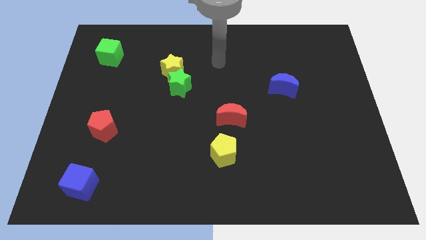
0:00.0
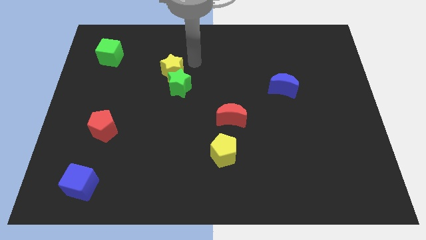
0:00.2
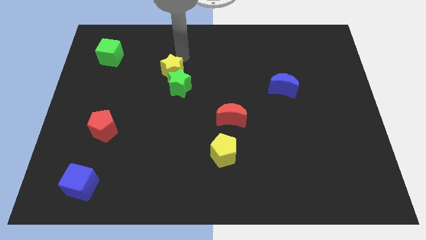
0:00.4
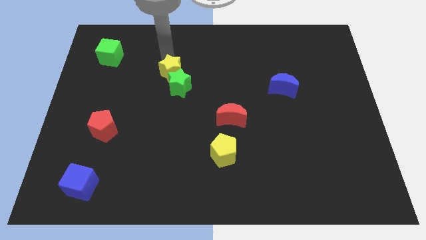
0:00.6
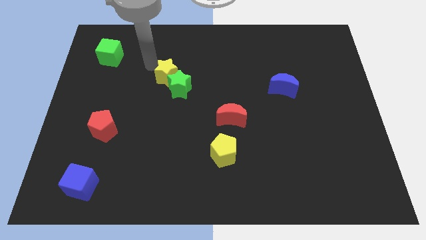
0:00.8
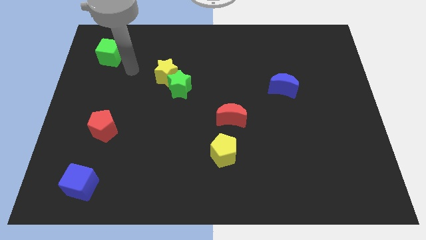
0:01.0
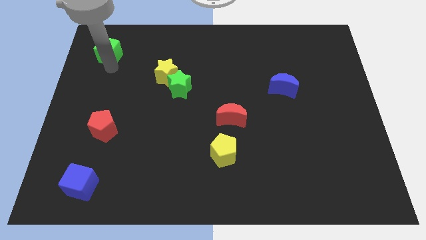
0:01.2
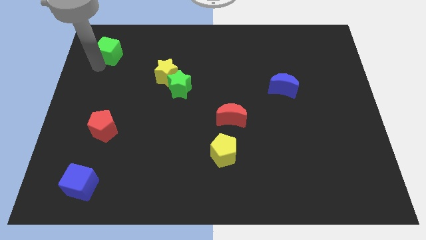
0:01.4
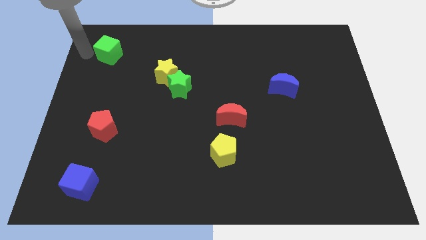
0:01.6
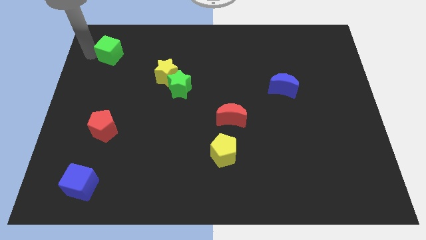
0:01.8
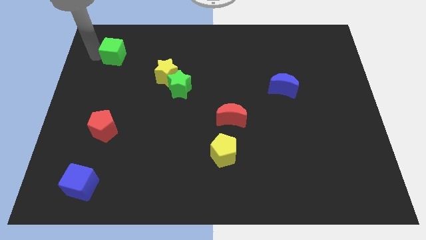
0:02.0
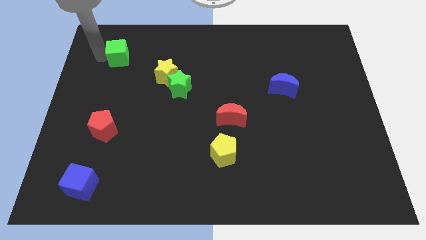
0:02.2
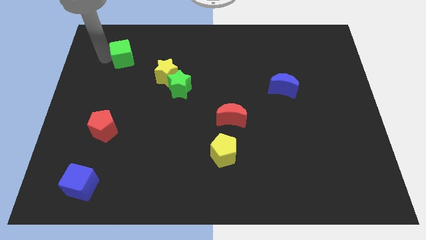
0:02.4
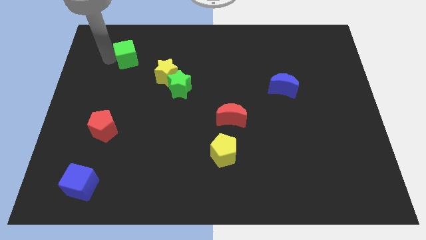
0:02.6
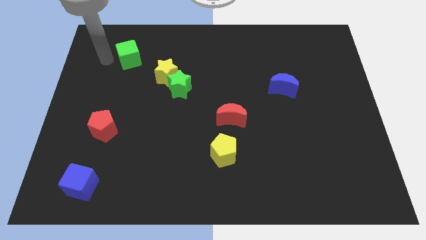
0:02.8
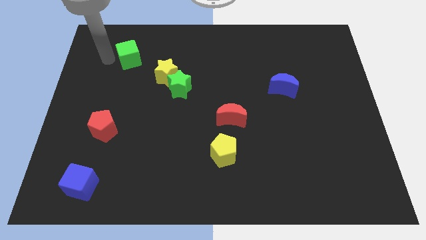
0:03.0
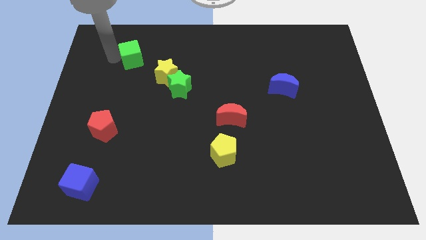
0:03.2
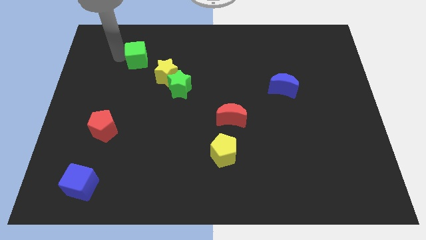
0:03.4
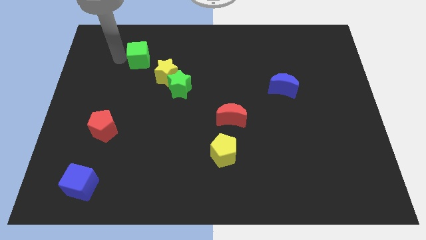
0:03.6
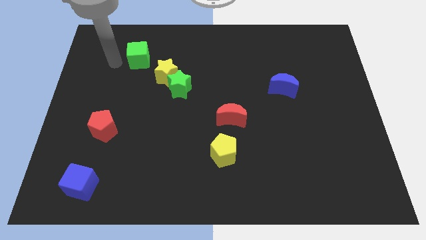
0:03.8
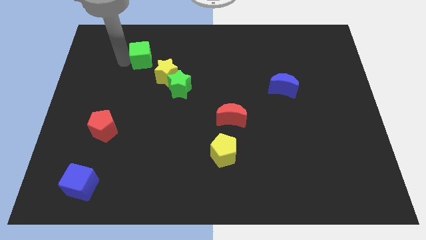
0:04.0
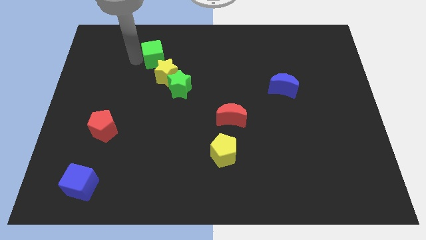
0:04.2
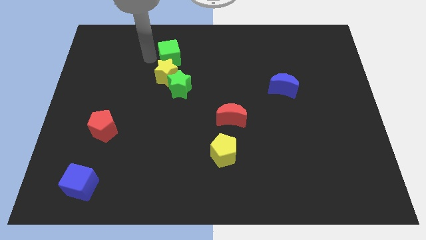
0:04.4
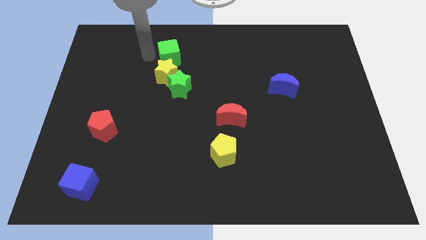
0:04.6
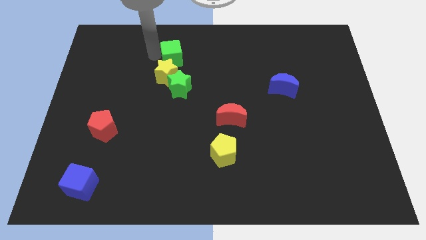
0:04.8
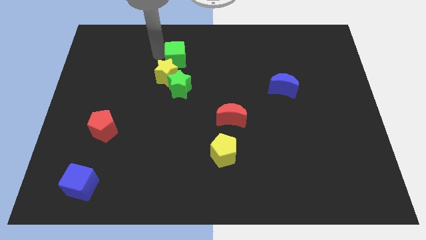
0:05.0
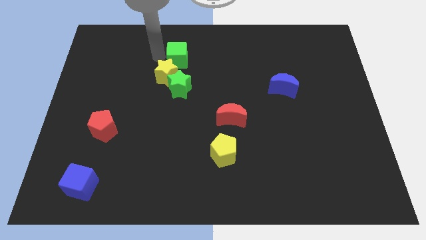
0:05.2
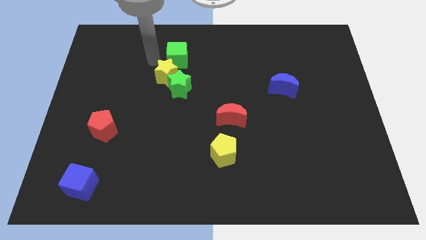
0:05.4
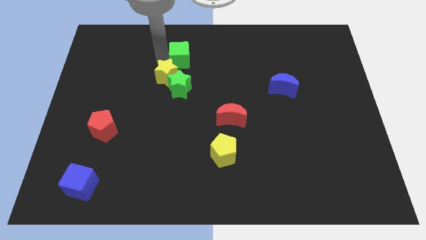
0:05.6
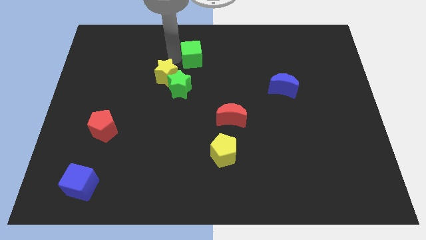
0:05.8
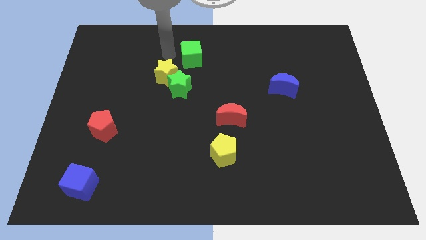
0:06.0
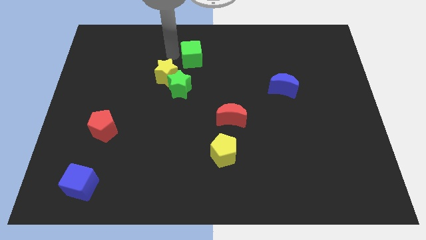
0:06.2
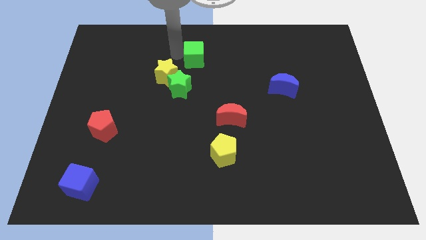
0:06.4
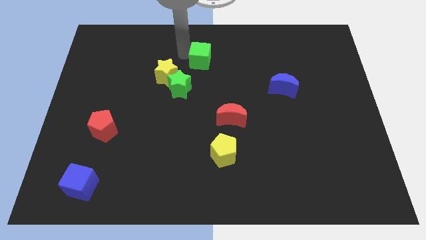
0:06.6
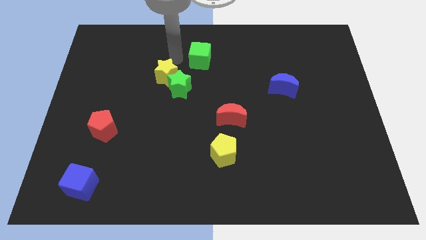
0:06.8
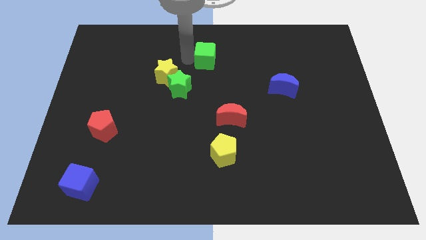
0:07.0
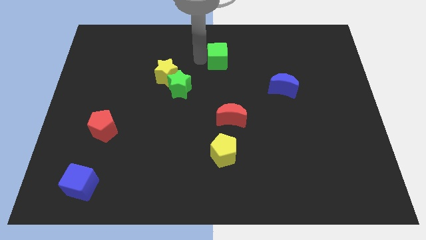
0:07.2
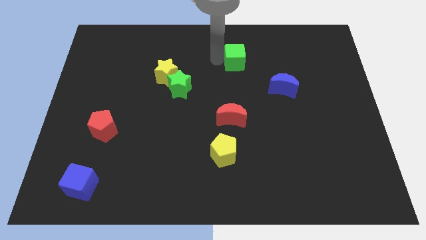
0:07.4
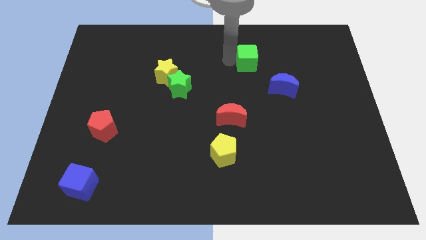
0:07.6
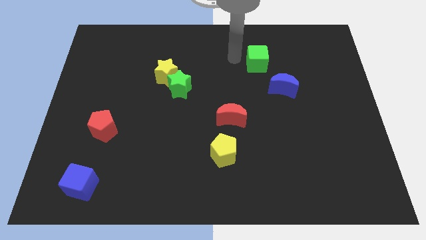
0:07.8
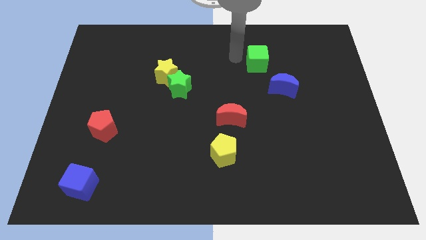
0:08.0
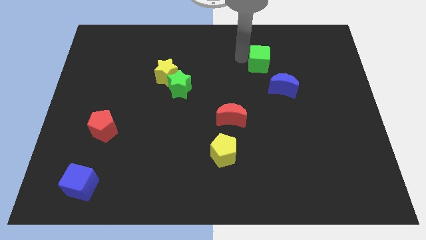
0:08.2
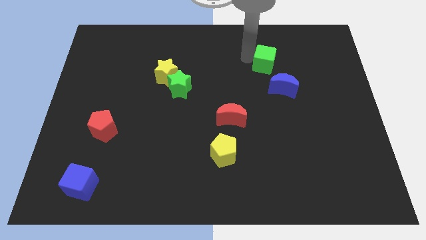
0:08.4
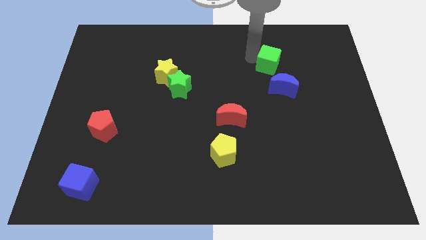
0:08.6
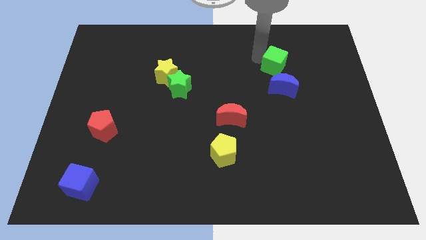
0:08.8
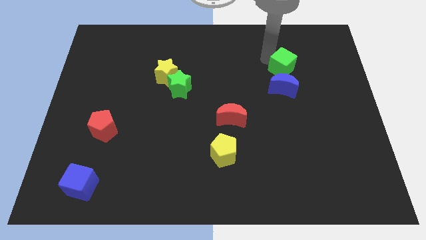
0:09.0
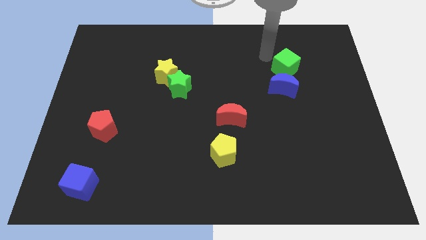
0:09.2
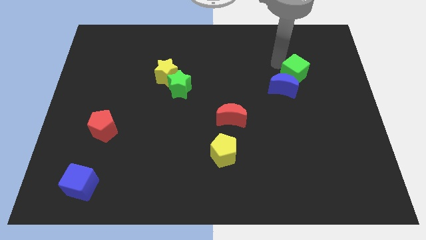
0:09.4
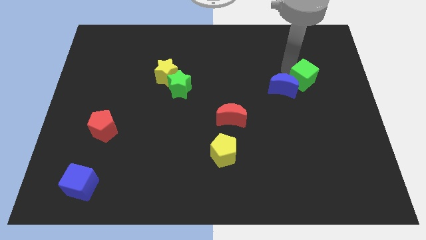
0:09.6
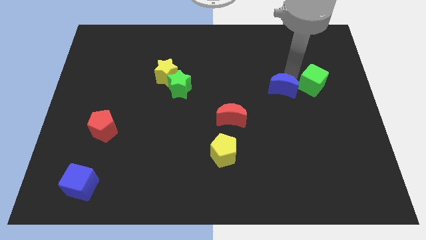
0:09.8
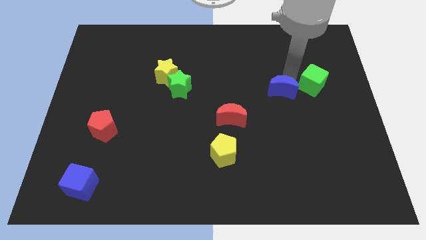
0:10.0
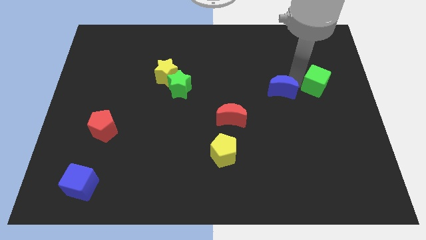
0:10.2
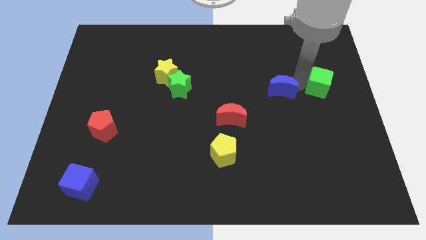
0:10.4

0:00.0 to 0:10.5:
slide the green cube to the right side of the board
